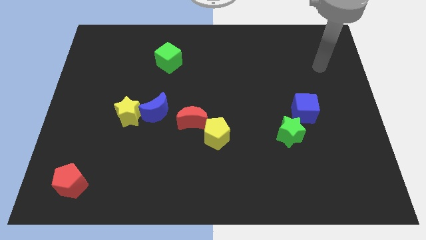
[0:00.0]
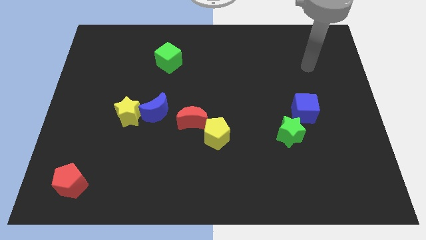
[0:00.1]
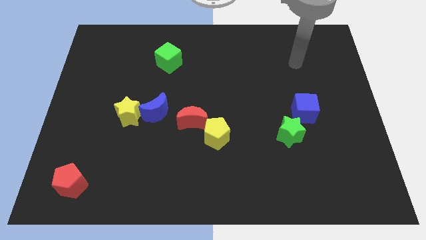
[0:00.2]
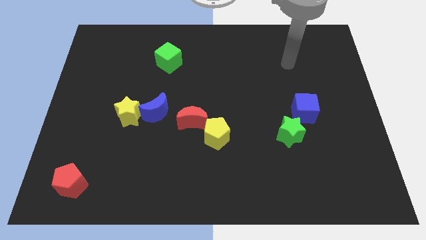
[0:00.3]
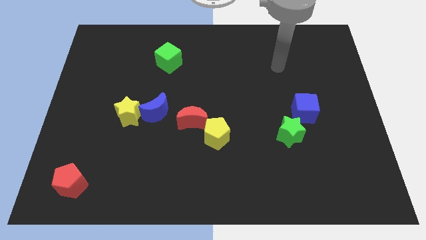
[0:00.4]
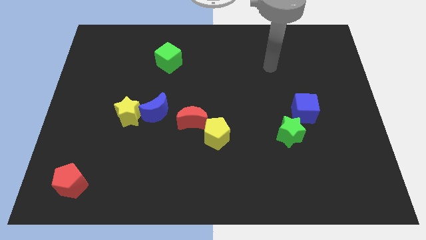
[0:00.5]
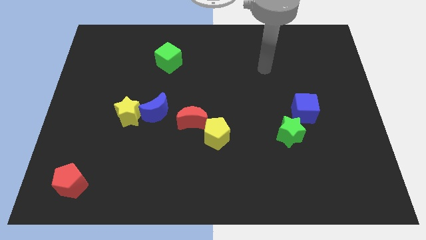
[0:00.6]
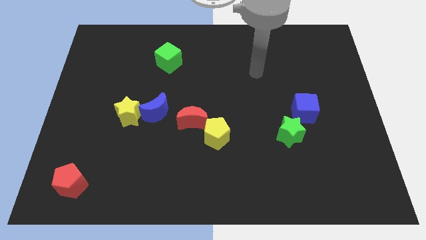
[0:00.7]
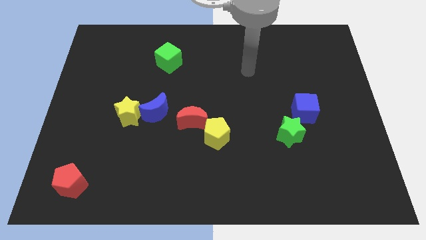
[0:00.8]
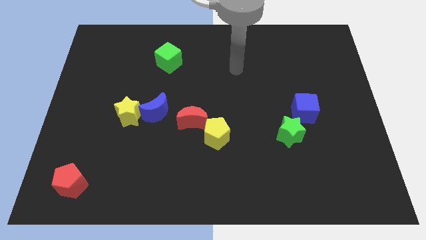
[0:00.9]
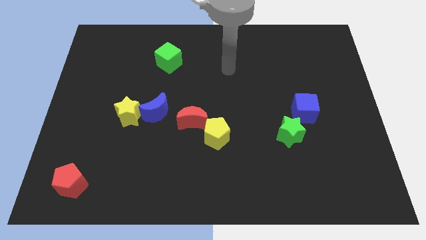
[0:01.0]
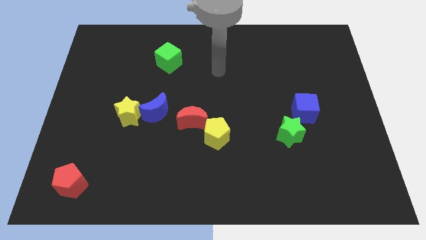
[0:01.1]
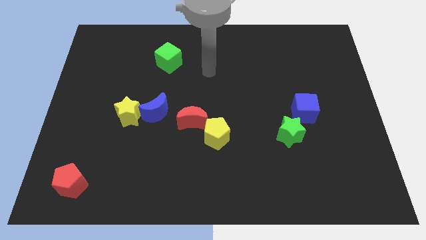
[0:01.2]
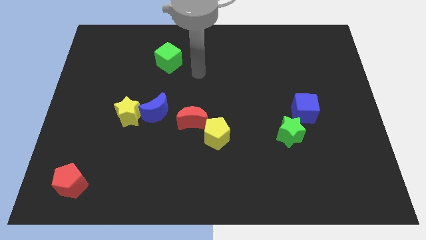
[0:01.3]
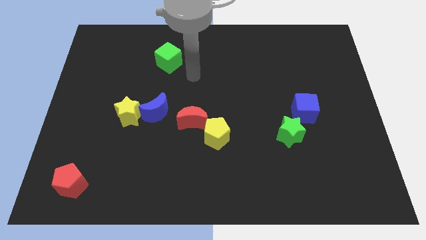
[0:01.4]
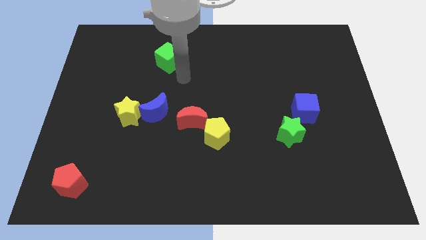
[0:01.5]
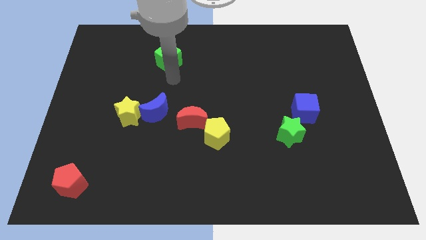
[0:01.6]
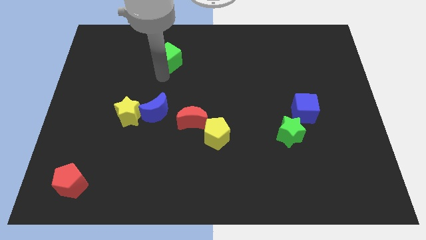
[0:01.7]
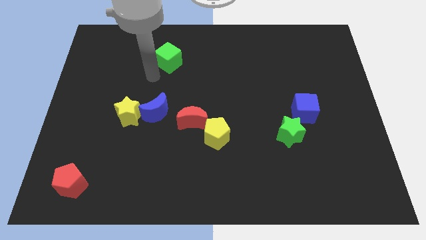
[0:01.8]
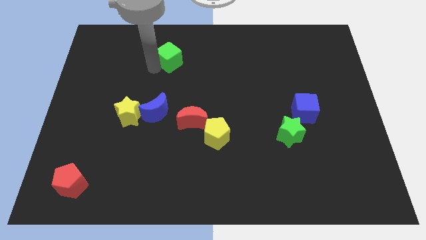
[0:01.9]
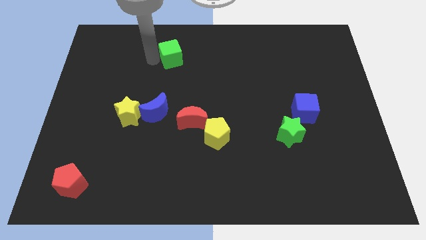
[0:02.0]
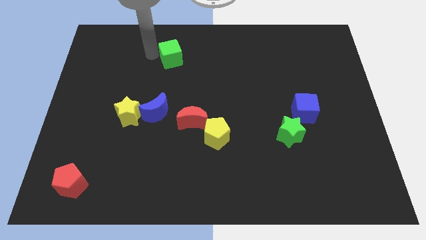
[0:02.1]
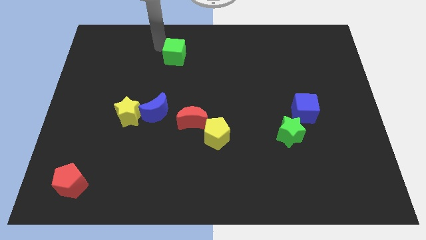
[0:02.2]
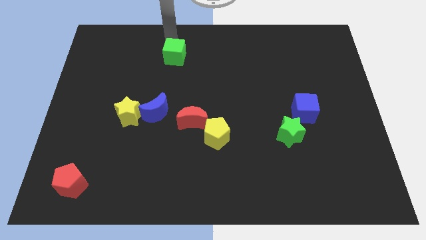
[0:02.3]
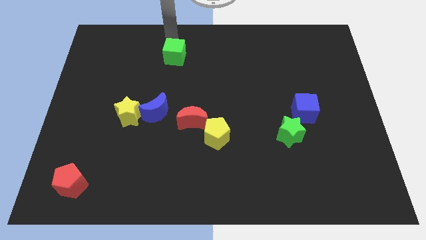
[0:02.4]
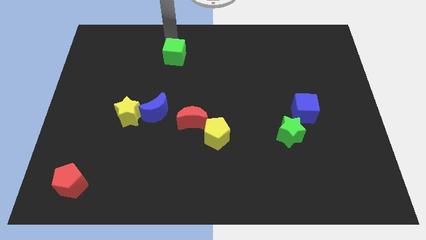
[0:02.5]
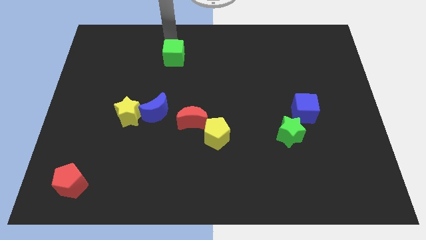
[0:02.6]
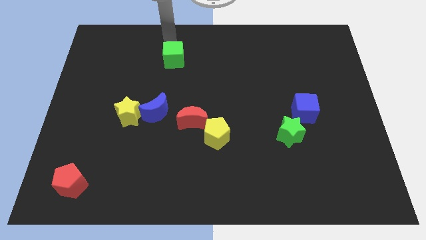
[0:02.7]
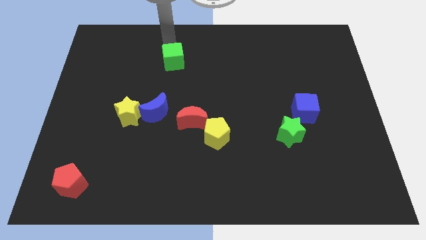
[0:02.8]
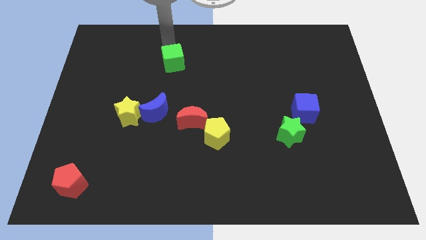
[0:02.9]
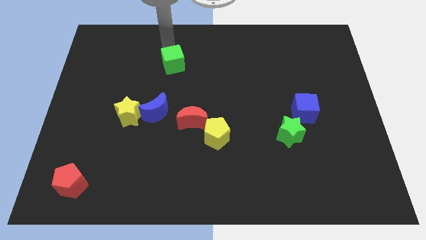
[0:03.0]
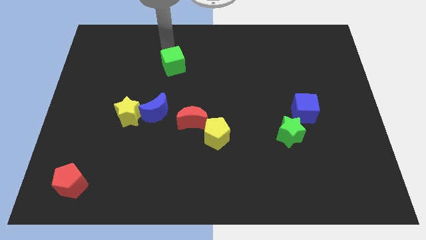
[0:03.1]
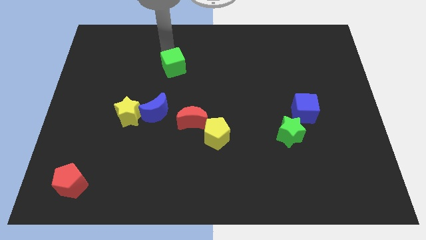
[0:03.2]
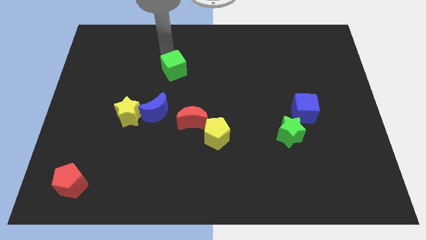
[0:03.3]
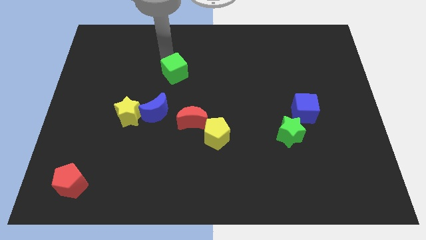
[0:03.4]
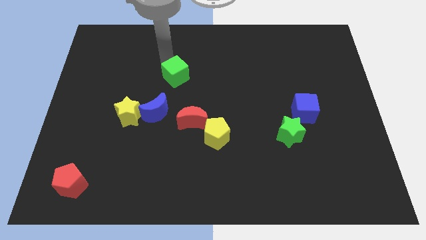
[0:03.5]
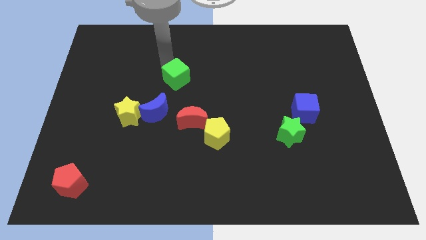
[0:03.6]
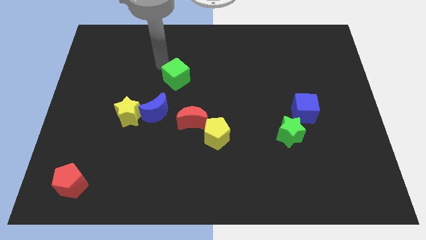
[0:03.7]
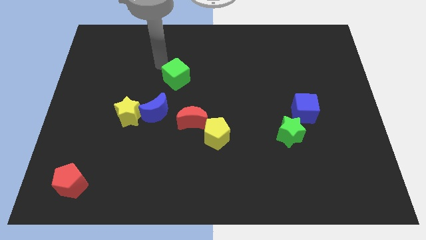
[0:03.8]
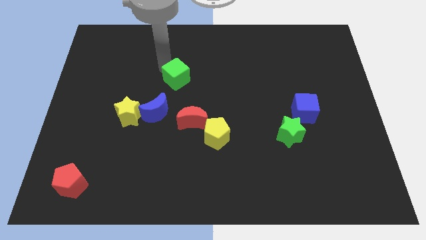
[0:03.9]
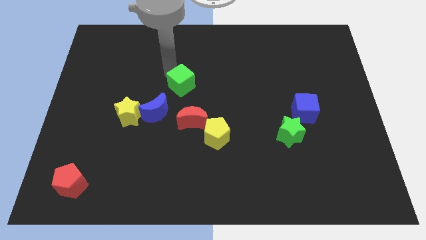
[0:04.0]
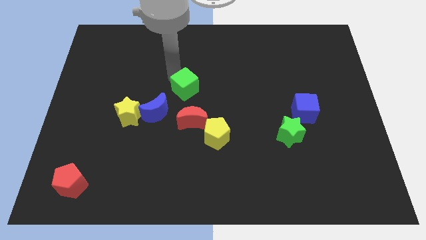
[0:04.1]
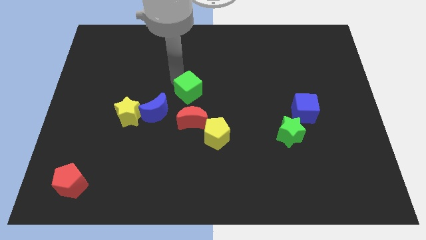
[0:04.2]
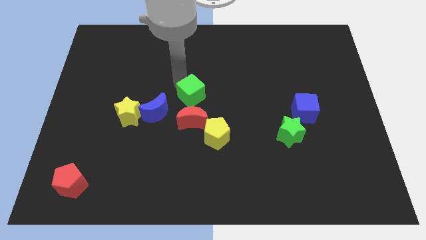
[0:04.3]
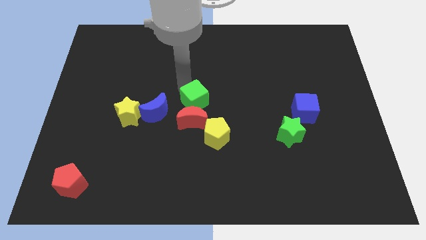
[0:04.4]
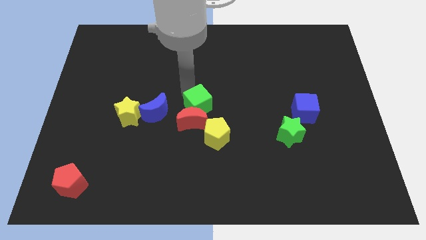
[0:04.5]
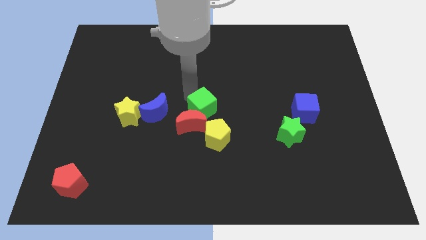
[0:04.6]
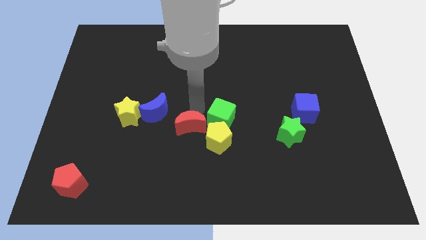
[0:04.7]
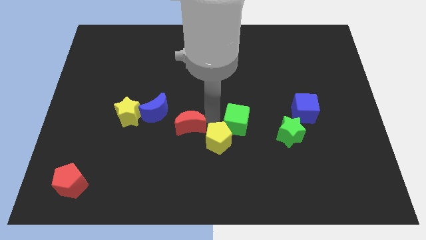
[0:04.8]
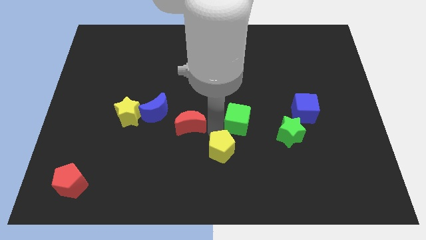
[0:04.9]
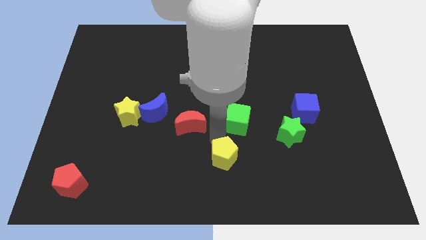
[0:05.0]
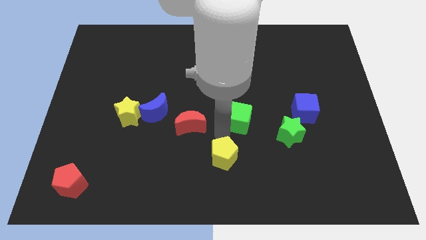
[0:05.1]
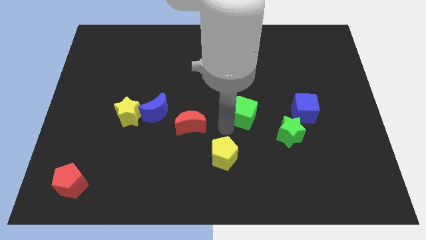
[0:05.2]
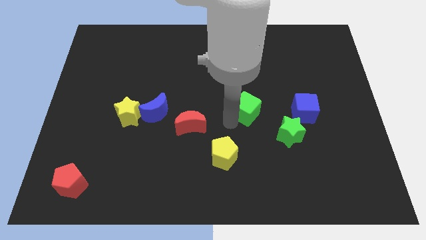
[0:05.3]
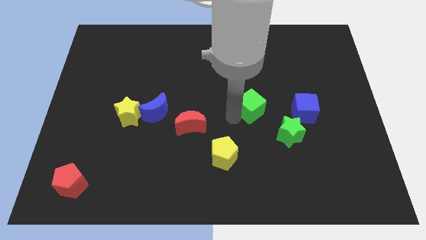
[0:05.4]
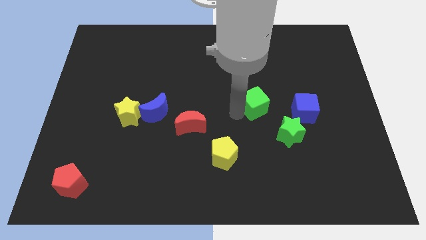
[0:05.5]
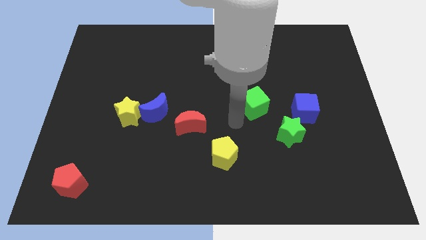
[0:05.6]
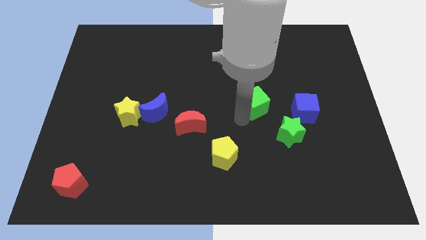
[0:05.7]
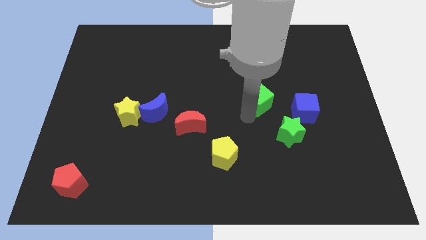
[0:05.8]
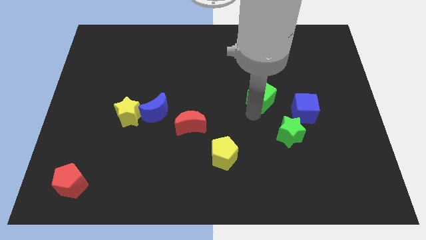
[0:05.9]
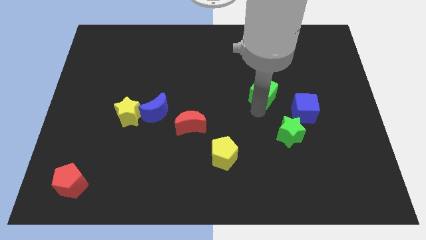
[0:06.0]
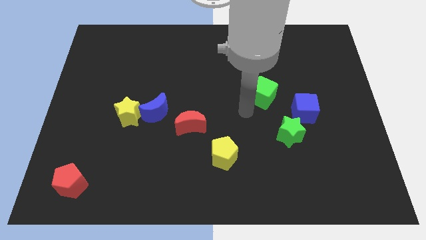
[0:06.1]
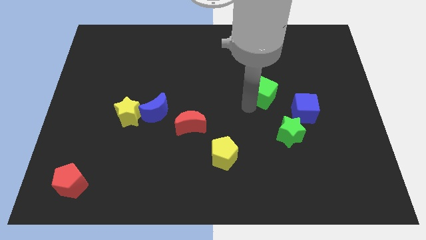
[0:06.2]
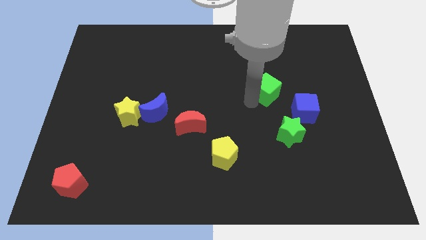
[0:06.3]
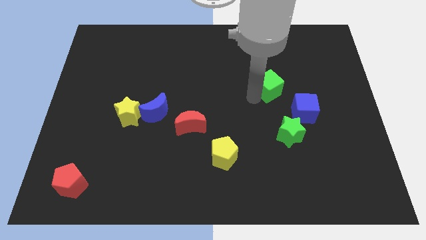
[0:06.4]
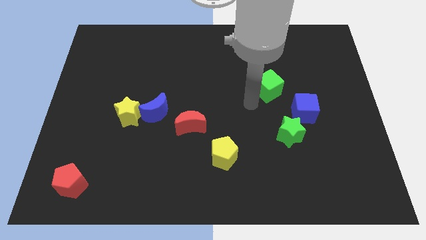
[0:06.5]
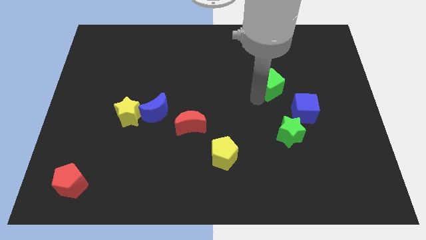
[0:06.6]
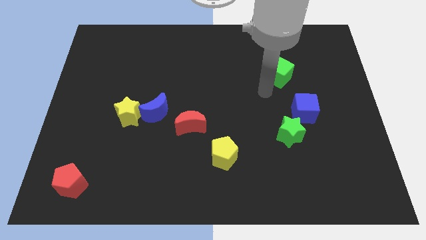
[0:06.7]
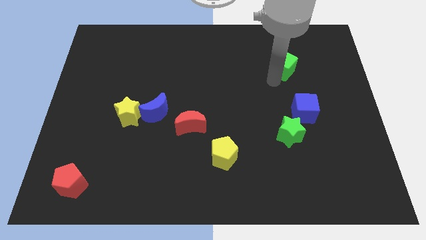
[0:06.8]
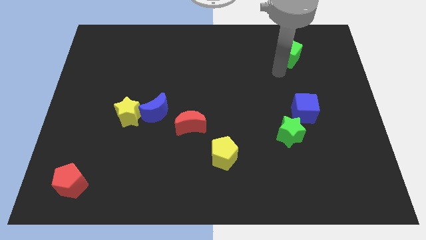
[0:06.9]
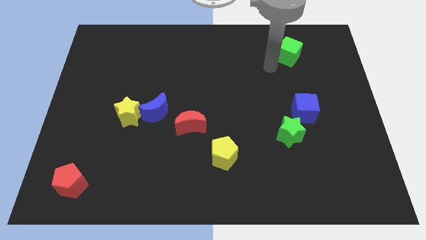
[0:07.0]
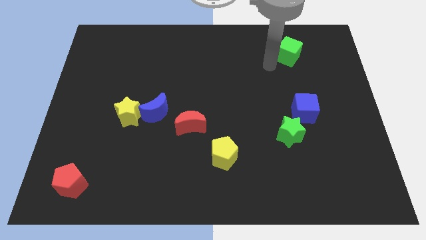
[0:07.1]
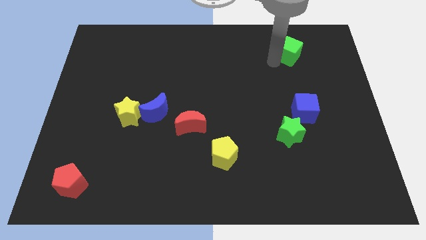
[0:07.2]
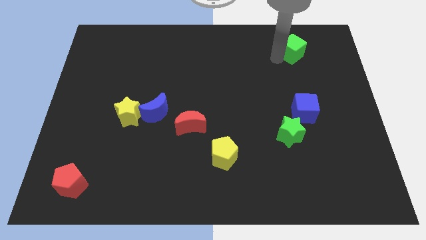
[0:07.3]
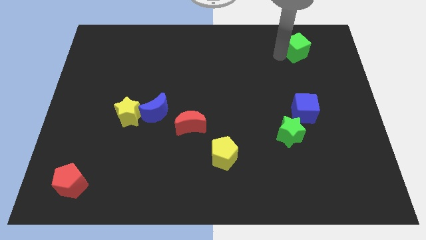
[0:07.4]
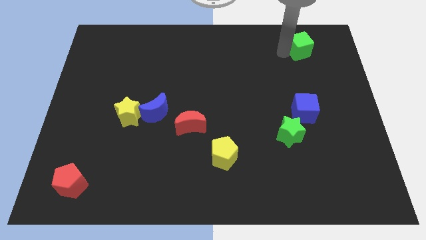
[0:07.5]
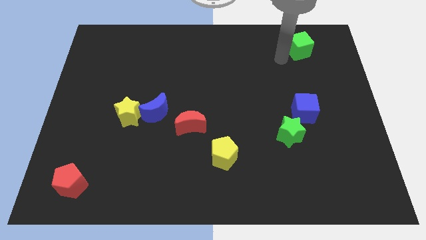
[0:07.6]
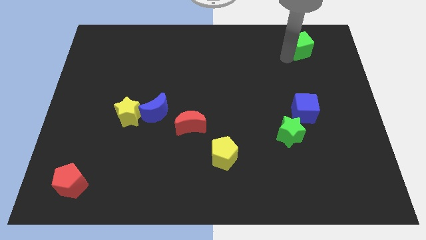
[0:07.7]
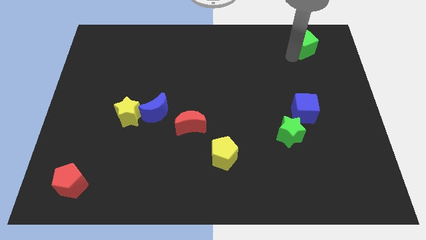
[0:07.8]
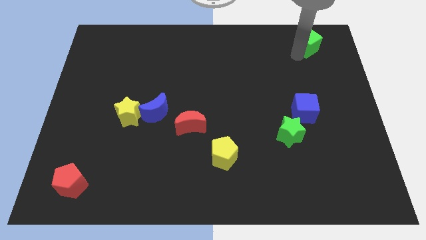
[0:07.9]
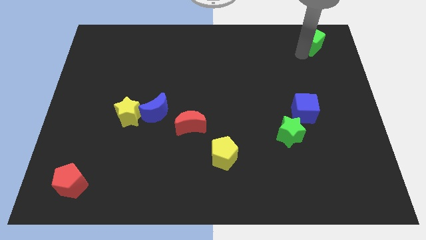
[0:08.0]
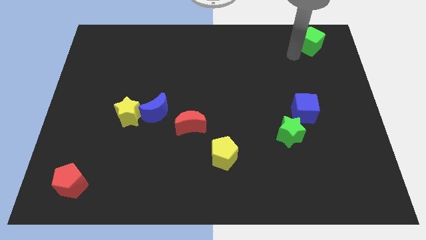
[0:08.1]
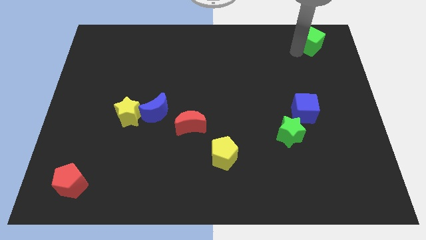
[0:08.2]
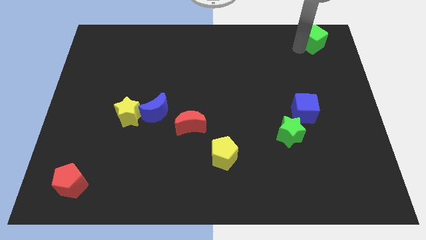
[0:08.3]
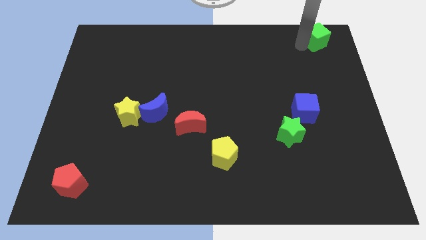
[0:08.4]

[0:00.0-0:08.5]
push the green cube to the top right
